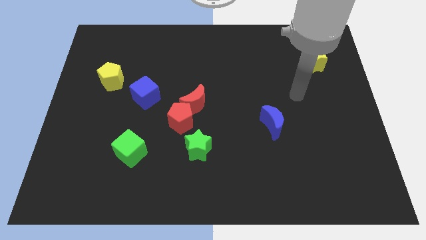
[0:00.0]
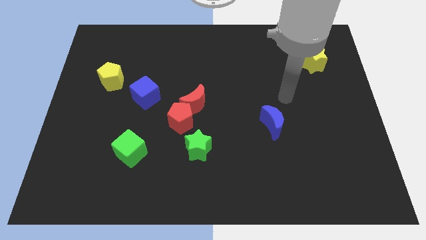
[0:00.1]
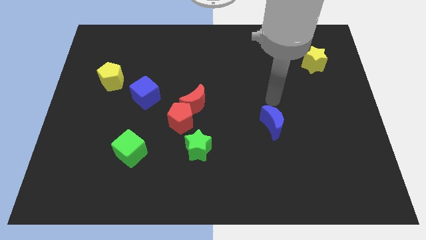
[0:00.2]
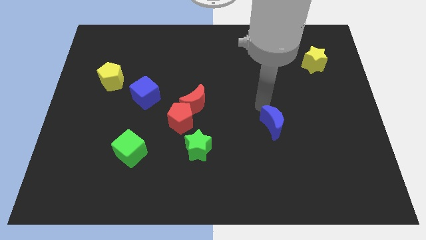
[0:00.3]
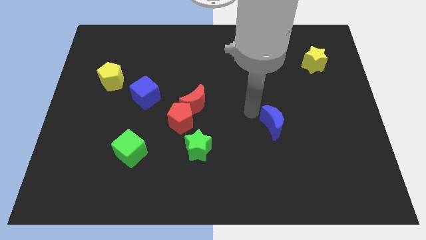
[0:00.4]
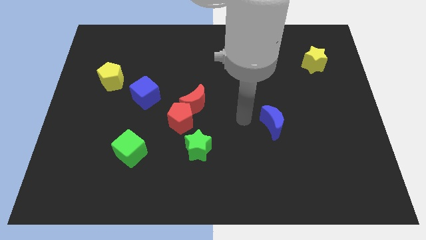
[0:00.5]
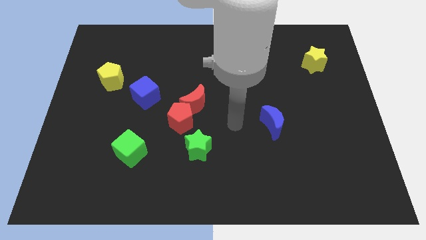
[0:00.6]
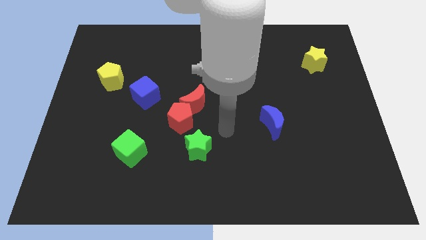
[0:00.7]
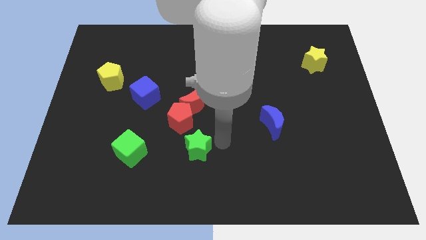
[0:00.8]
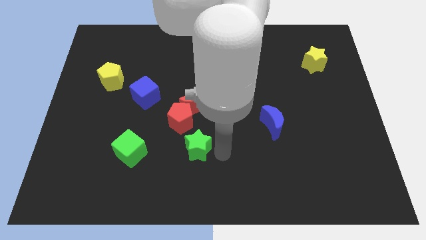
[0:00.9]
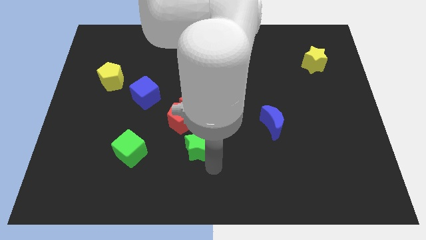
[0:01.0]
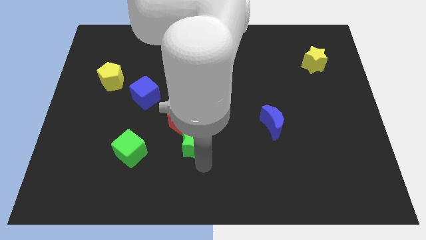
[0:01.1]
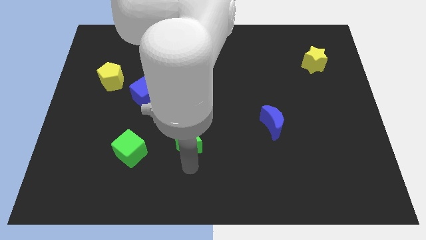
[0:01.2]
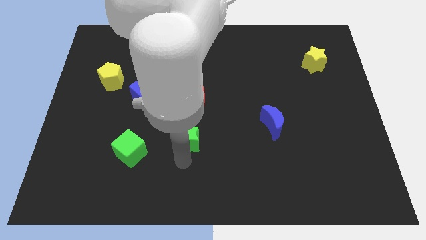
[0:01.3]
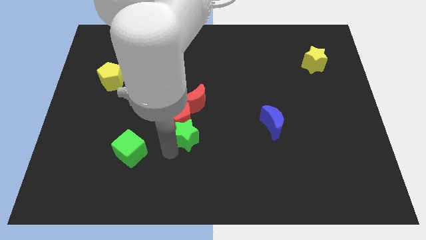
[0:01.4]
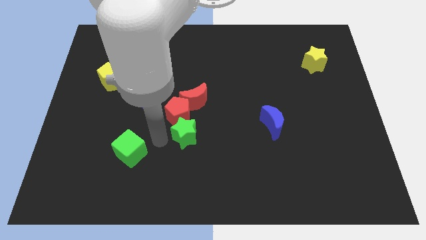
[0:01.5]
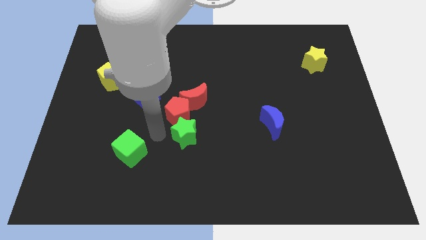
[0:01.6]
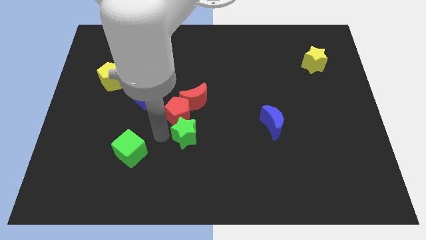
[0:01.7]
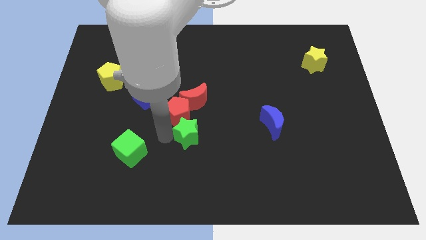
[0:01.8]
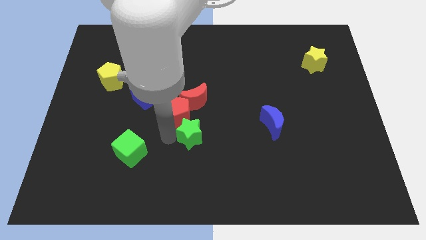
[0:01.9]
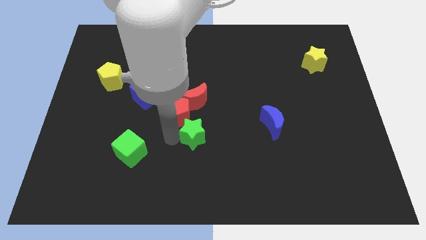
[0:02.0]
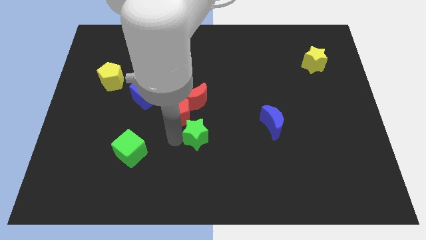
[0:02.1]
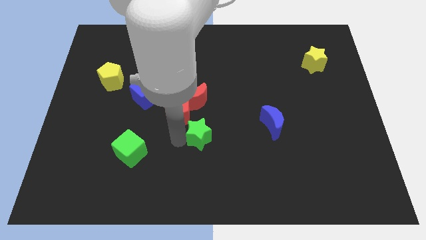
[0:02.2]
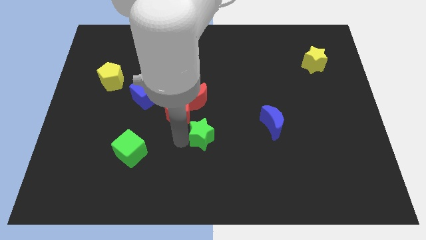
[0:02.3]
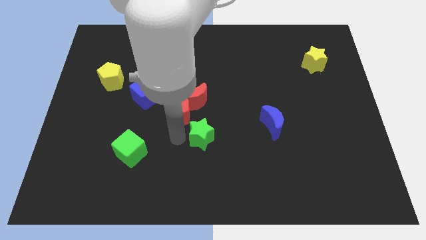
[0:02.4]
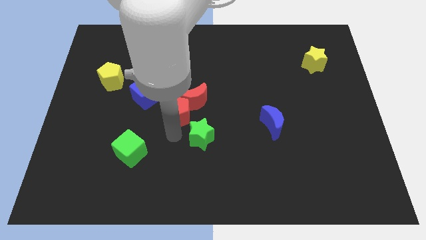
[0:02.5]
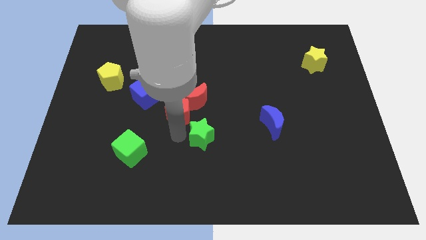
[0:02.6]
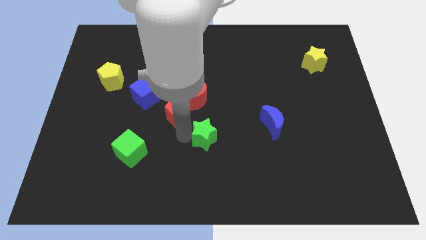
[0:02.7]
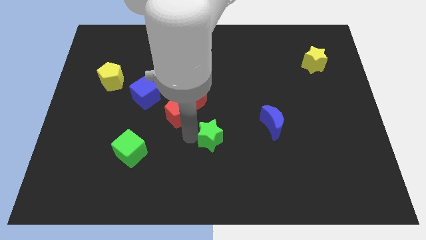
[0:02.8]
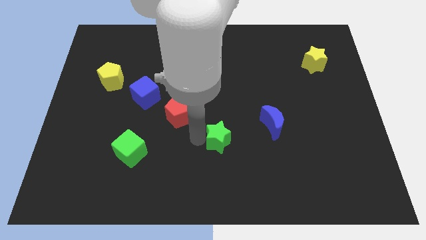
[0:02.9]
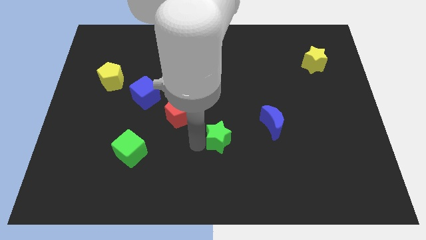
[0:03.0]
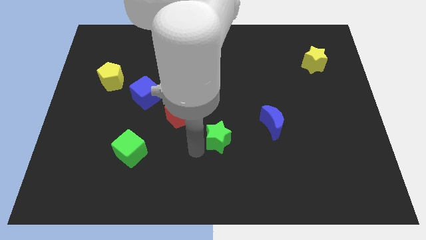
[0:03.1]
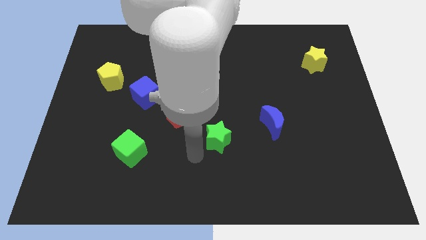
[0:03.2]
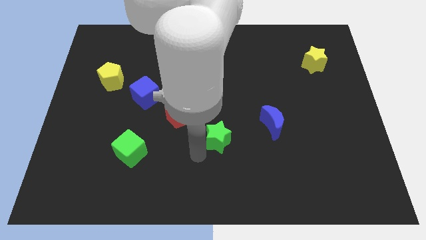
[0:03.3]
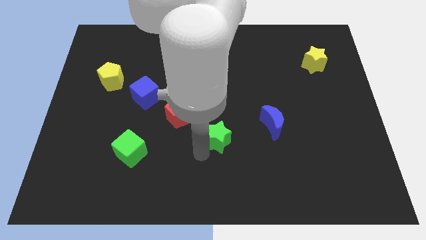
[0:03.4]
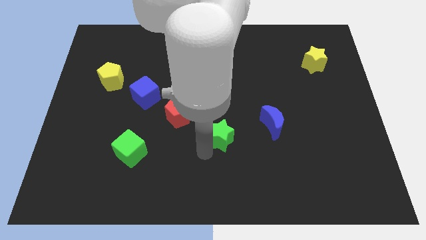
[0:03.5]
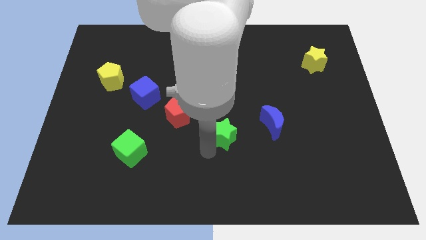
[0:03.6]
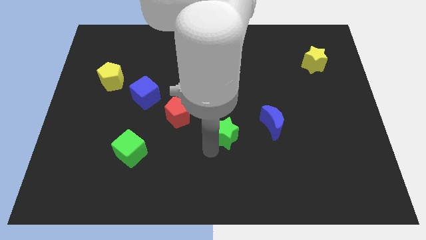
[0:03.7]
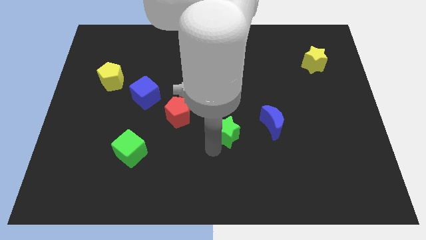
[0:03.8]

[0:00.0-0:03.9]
slightly move the green star upwards and then to the right

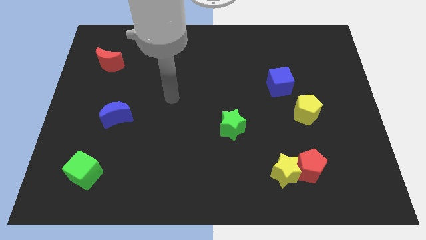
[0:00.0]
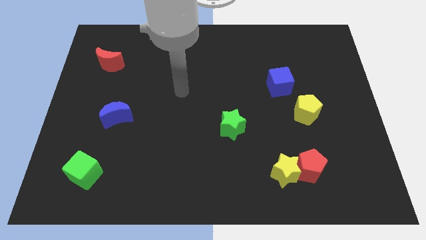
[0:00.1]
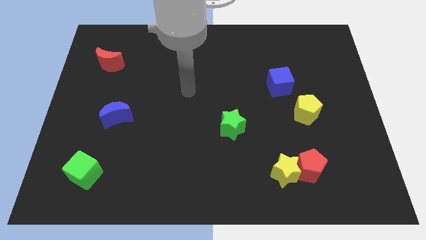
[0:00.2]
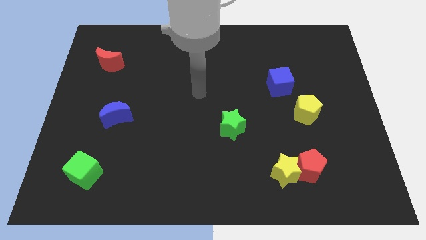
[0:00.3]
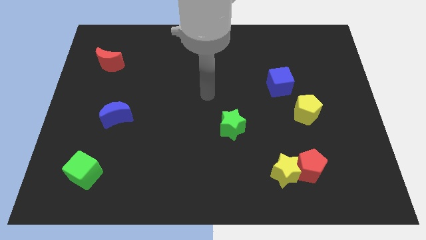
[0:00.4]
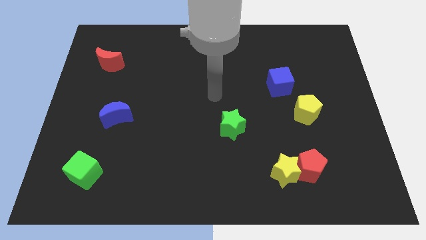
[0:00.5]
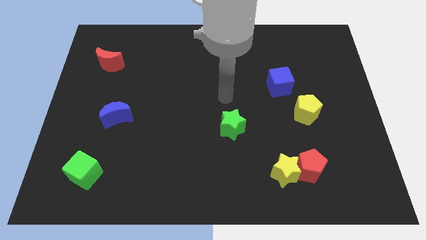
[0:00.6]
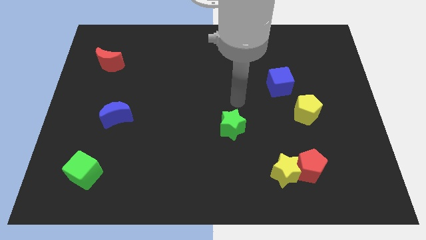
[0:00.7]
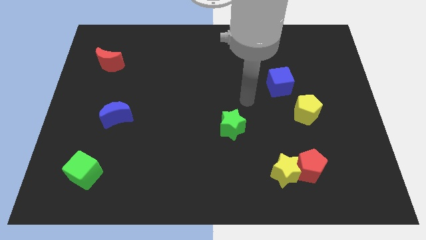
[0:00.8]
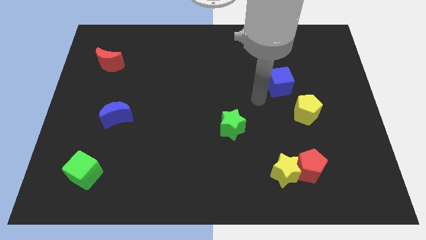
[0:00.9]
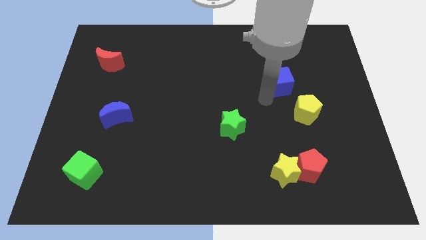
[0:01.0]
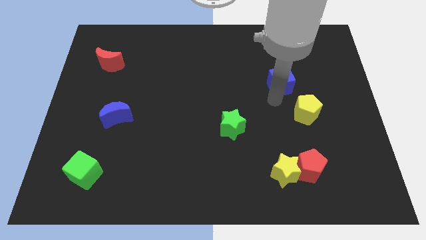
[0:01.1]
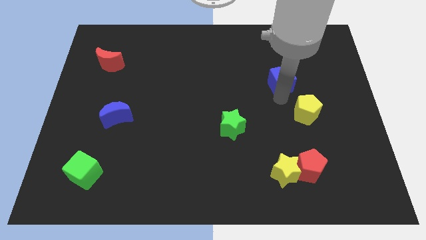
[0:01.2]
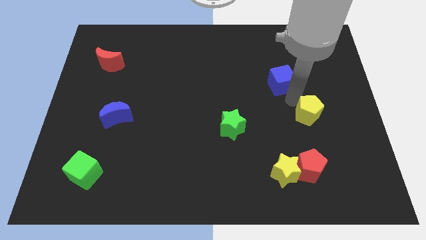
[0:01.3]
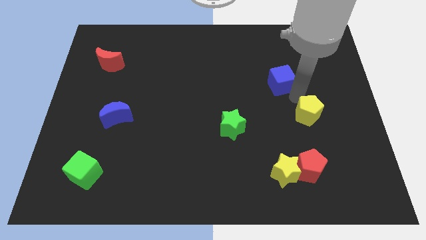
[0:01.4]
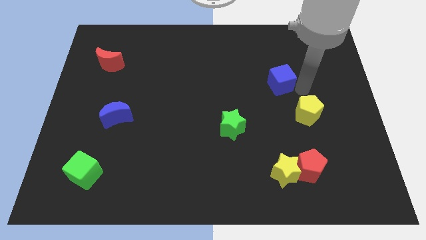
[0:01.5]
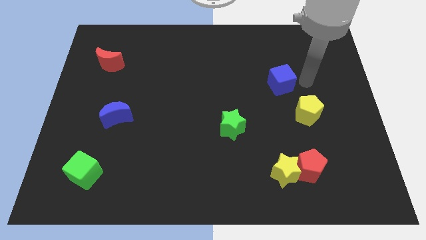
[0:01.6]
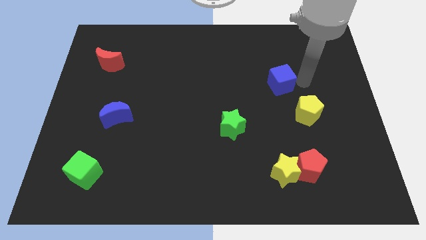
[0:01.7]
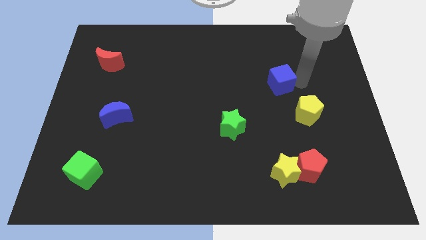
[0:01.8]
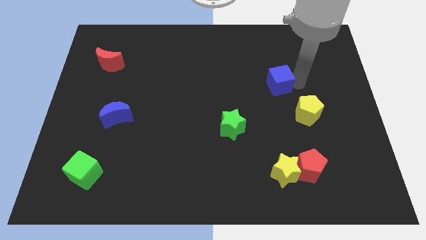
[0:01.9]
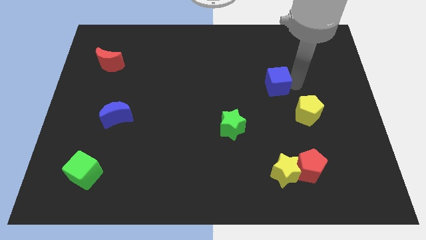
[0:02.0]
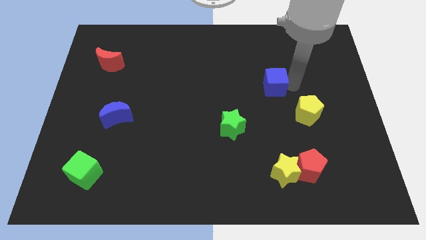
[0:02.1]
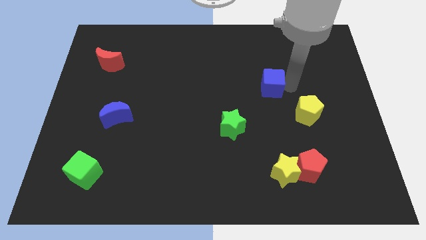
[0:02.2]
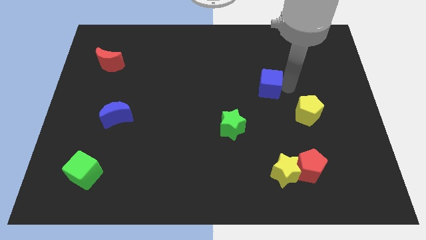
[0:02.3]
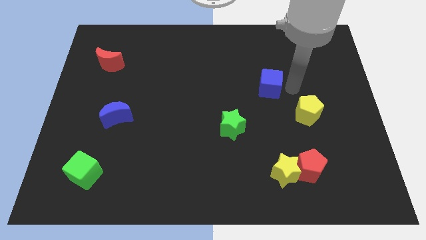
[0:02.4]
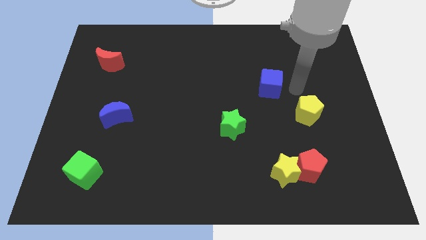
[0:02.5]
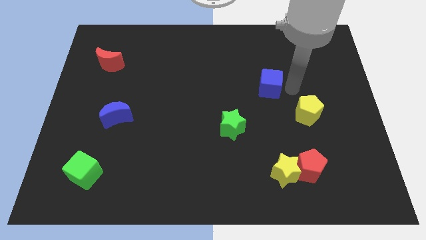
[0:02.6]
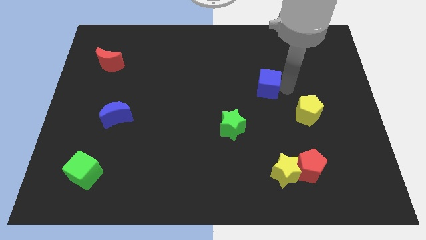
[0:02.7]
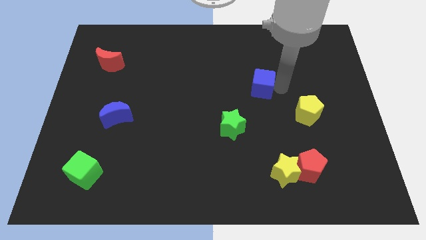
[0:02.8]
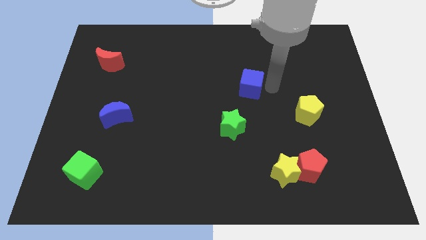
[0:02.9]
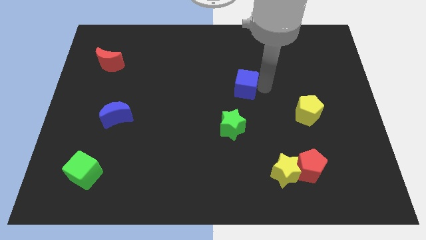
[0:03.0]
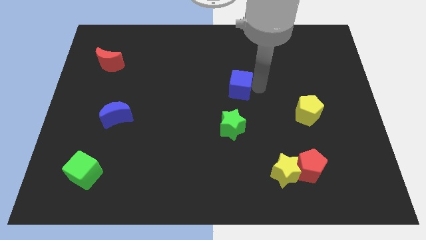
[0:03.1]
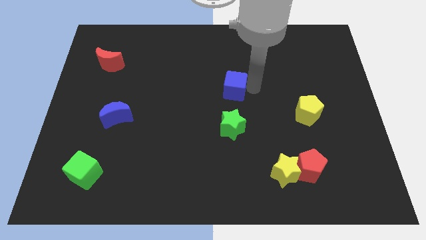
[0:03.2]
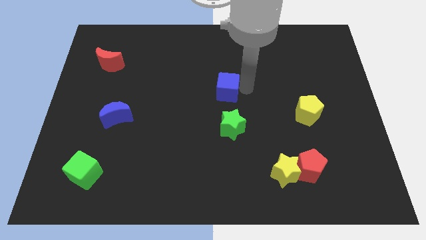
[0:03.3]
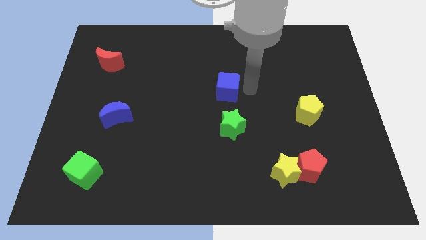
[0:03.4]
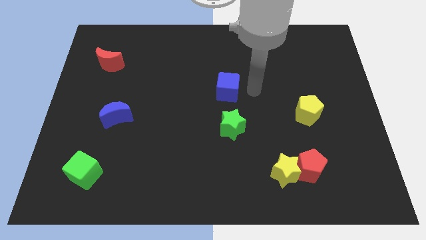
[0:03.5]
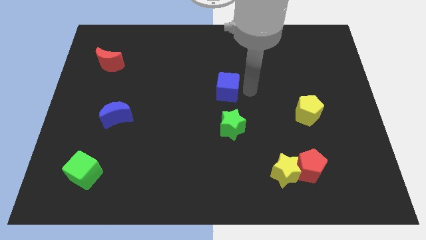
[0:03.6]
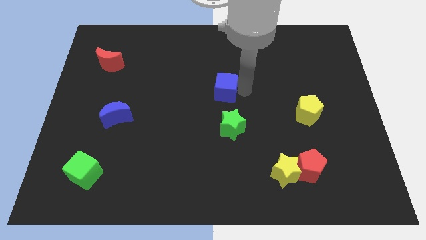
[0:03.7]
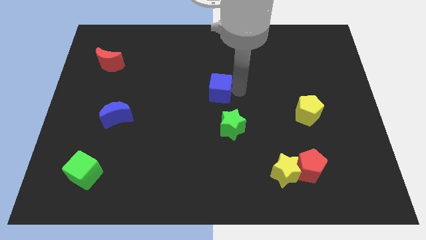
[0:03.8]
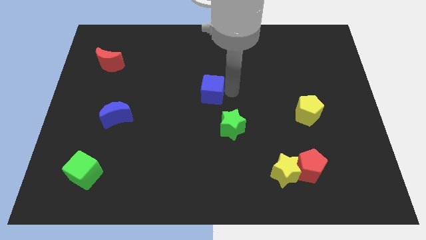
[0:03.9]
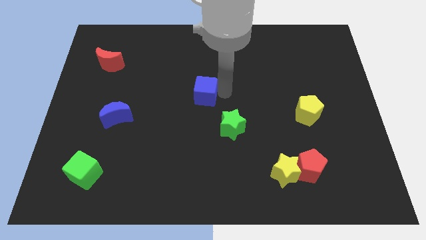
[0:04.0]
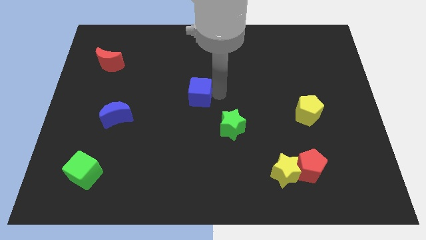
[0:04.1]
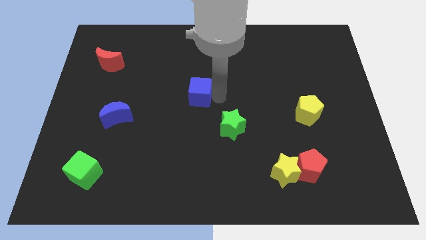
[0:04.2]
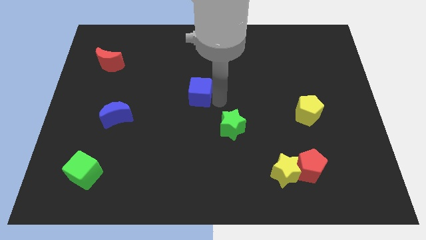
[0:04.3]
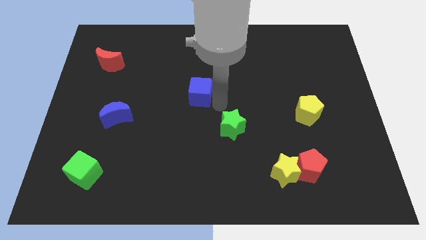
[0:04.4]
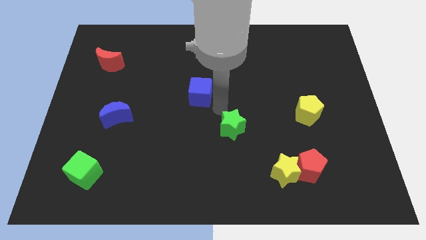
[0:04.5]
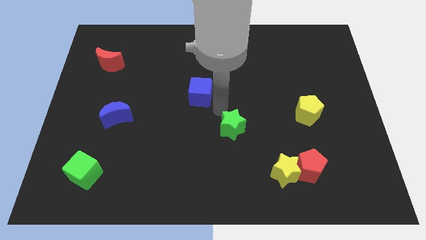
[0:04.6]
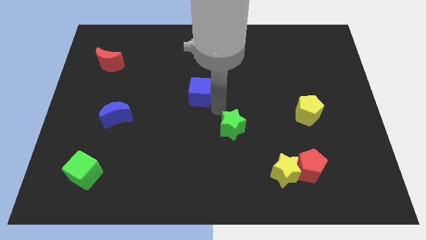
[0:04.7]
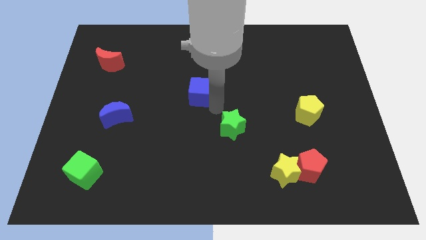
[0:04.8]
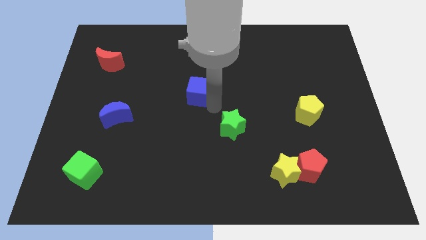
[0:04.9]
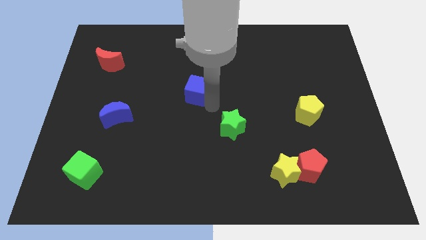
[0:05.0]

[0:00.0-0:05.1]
move the blue cube to the left
